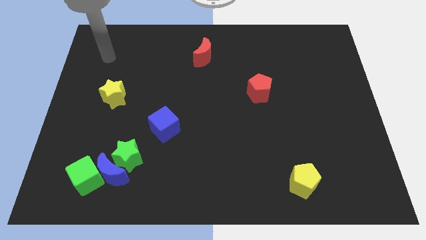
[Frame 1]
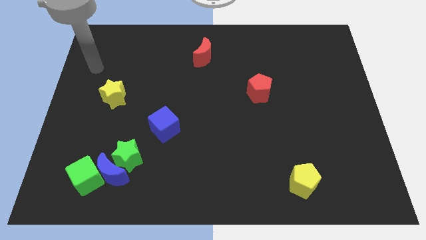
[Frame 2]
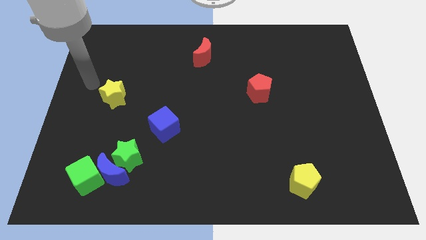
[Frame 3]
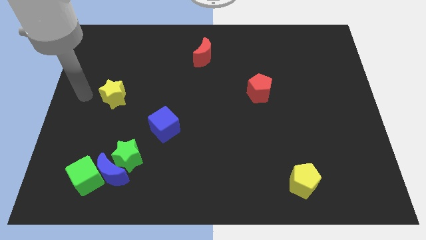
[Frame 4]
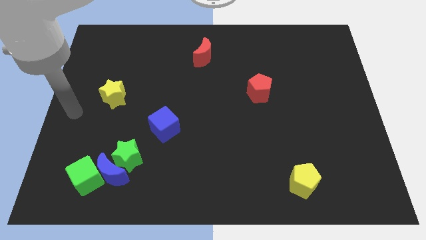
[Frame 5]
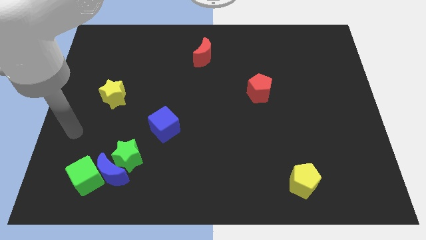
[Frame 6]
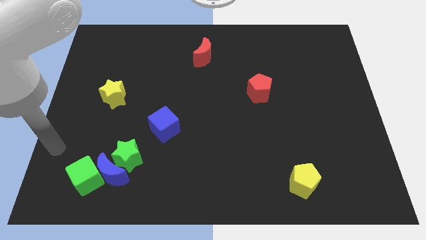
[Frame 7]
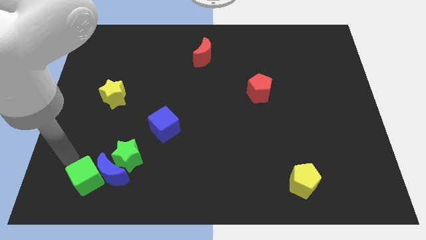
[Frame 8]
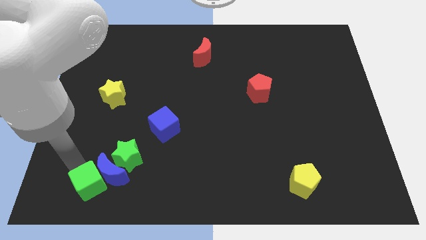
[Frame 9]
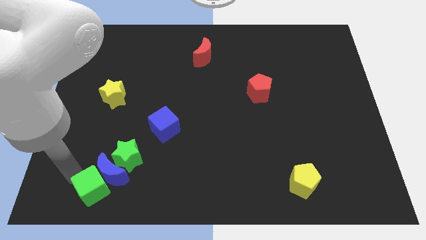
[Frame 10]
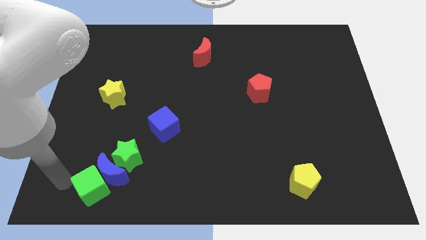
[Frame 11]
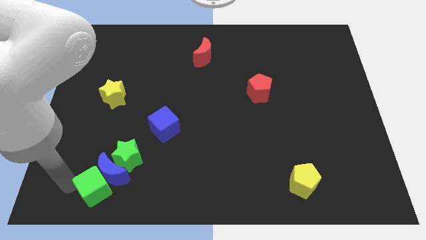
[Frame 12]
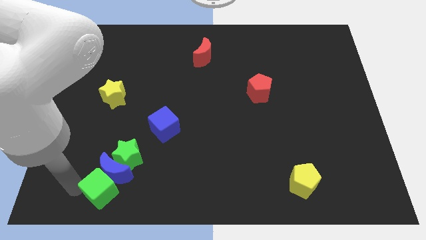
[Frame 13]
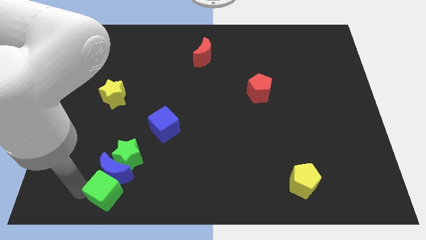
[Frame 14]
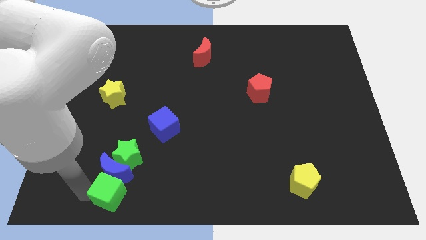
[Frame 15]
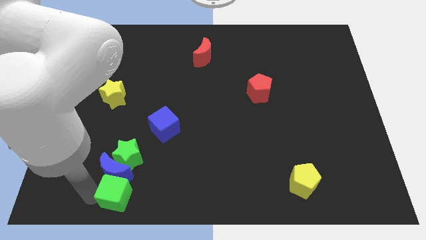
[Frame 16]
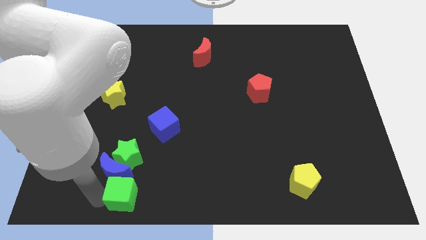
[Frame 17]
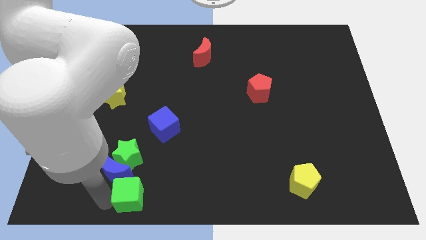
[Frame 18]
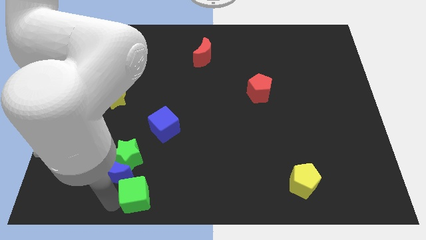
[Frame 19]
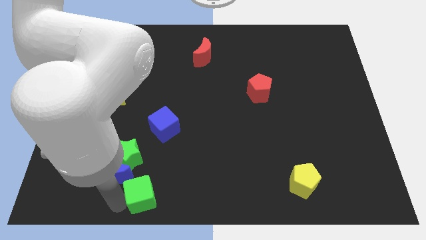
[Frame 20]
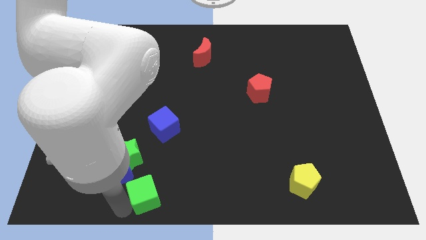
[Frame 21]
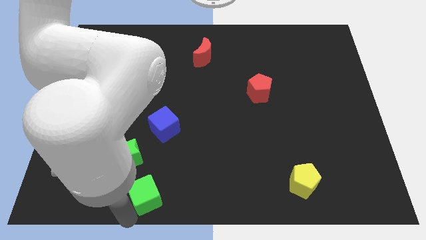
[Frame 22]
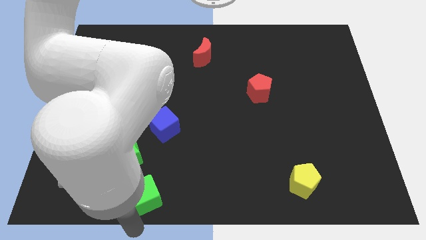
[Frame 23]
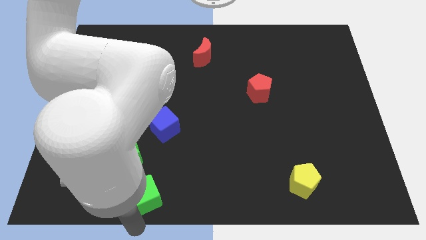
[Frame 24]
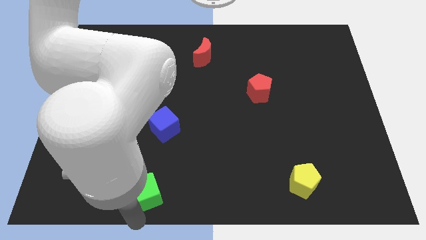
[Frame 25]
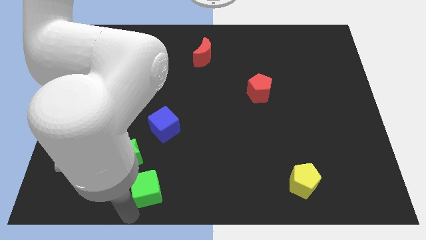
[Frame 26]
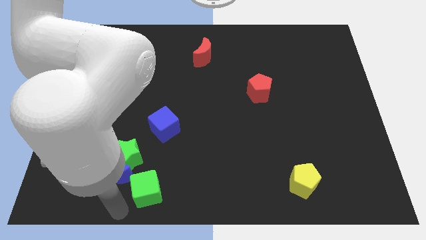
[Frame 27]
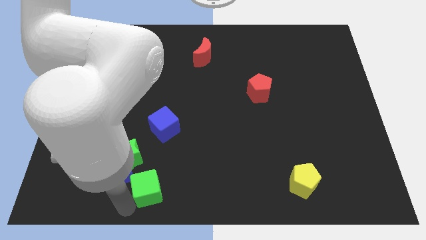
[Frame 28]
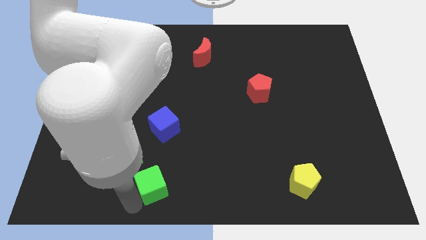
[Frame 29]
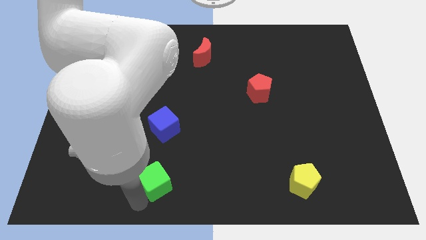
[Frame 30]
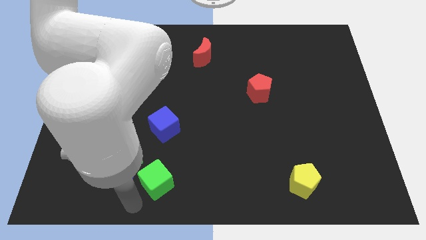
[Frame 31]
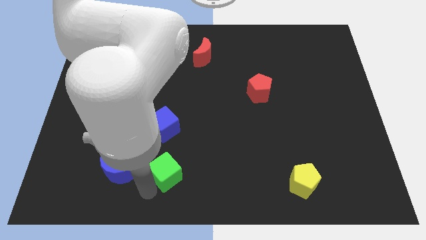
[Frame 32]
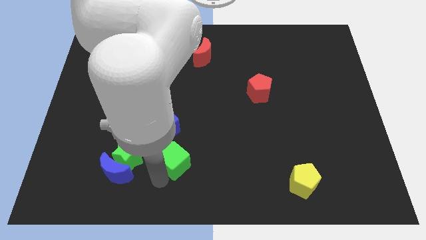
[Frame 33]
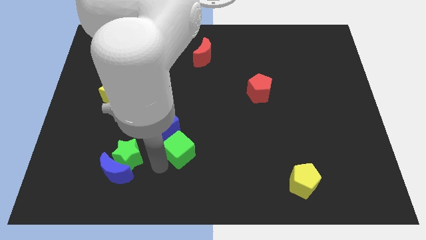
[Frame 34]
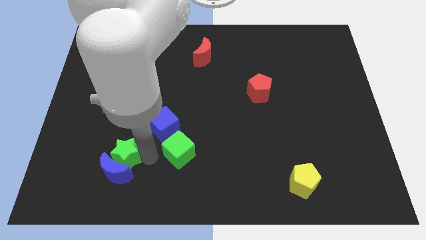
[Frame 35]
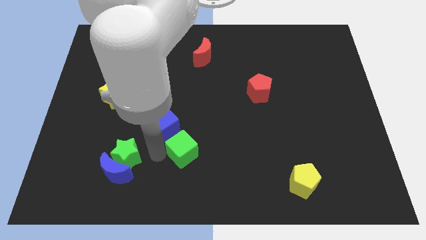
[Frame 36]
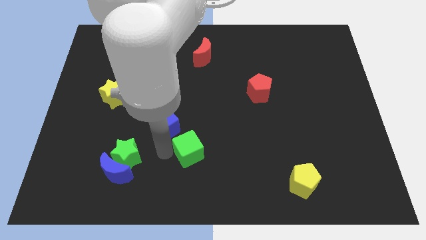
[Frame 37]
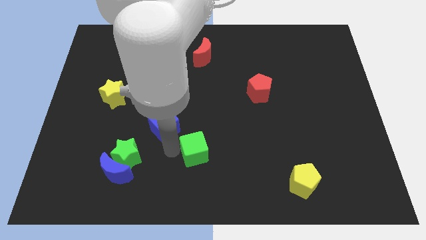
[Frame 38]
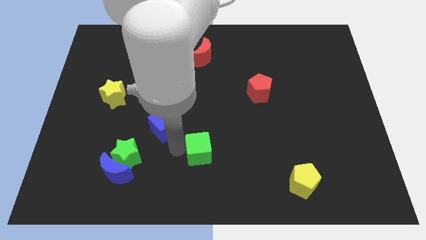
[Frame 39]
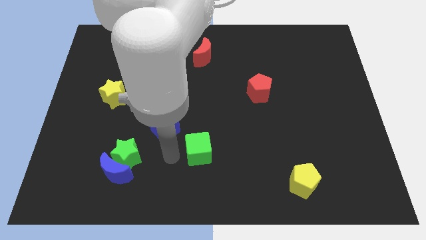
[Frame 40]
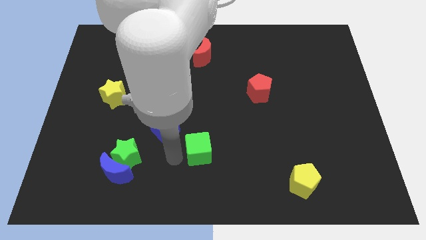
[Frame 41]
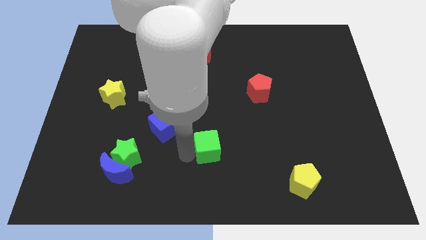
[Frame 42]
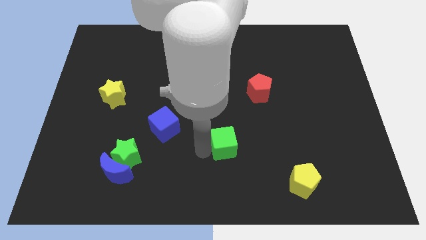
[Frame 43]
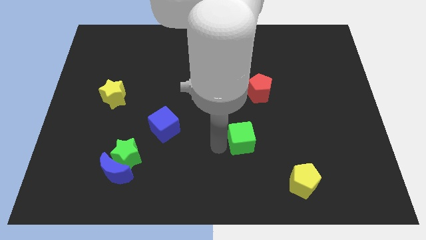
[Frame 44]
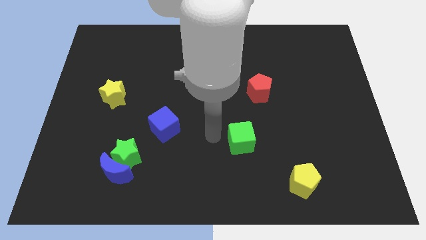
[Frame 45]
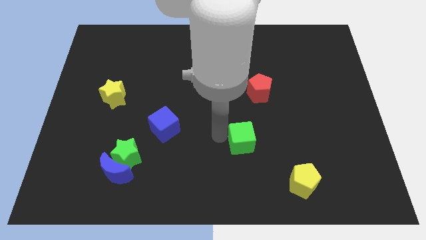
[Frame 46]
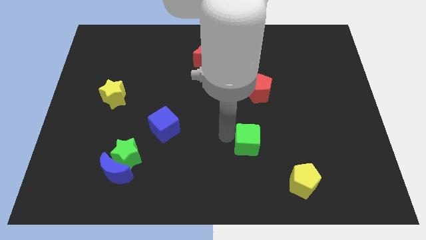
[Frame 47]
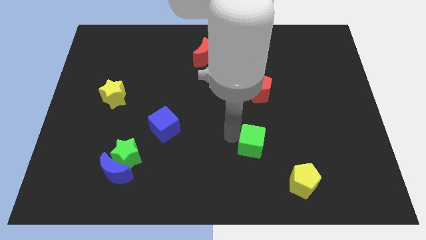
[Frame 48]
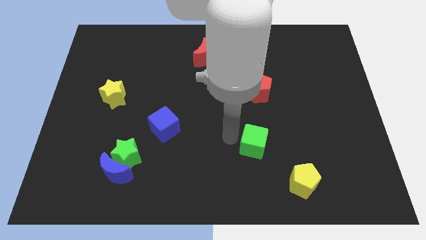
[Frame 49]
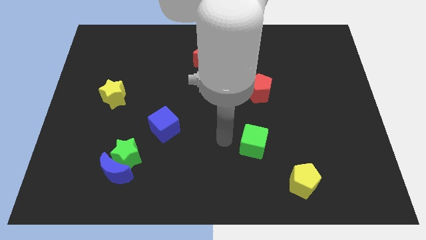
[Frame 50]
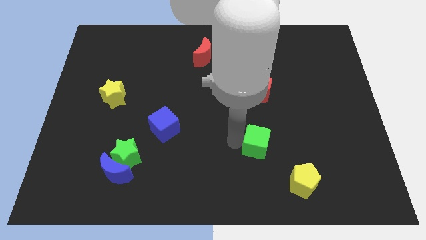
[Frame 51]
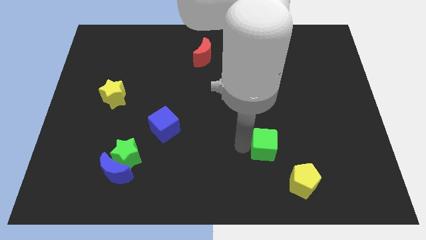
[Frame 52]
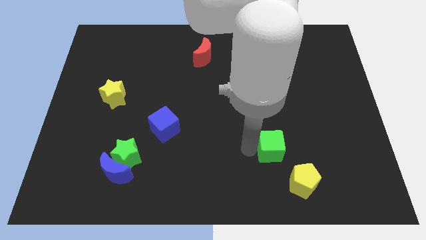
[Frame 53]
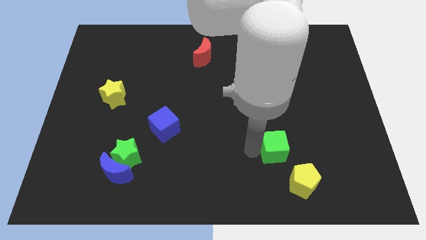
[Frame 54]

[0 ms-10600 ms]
move the green cube to the top side of the yellow pentagon

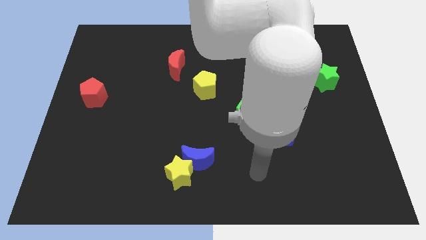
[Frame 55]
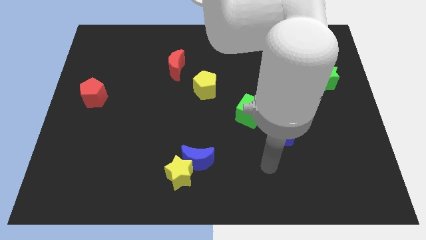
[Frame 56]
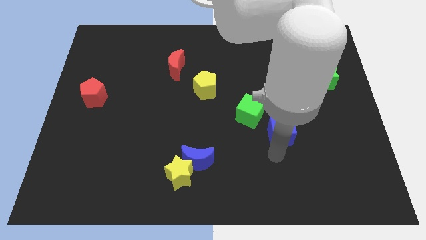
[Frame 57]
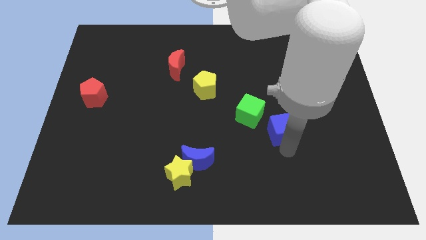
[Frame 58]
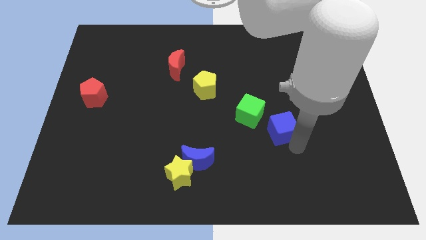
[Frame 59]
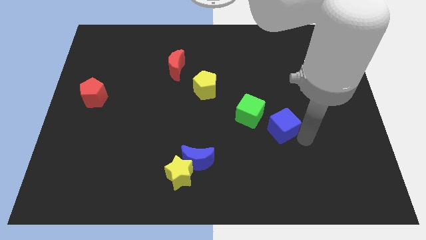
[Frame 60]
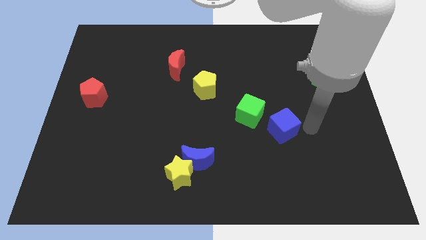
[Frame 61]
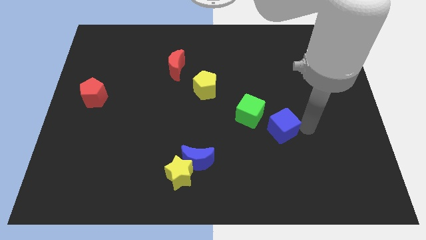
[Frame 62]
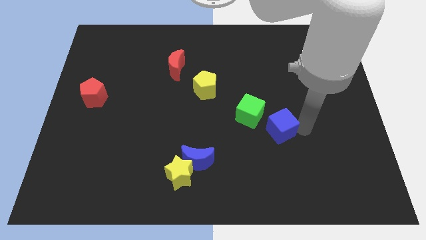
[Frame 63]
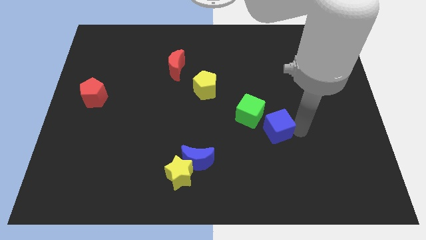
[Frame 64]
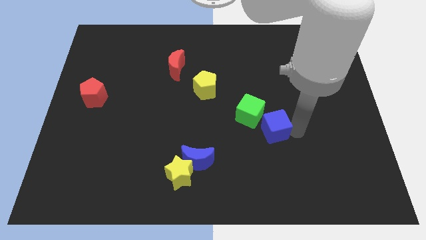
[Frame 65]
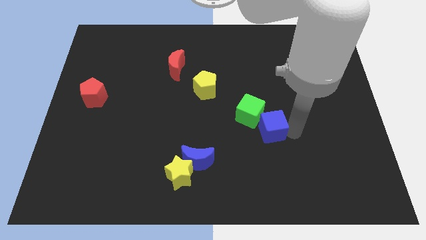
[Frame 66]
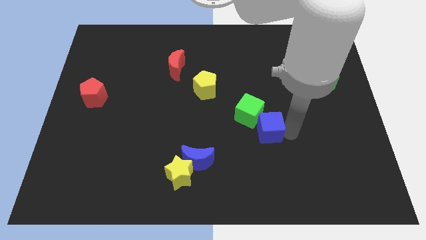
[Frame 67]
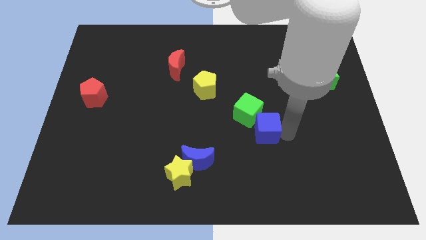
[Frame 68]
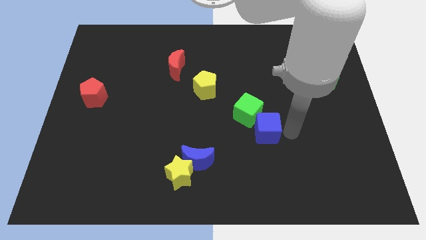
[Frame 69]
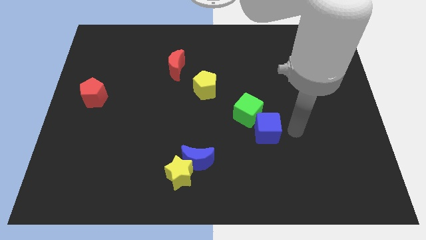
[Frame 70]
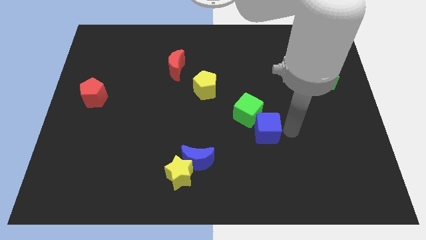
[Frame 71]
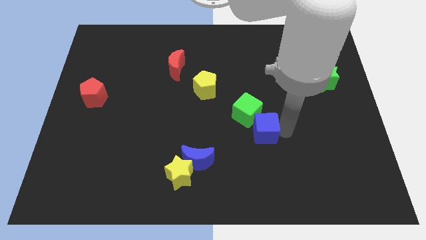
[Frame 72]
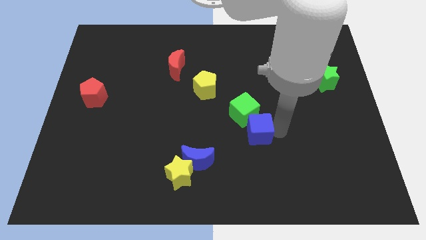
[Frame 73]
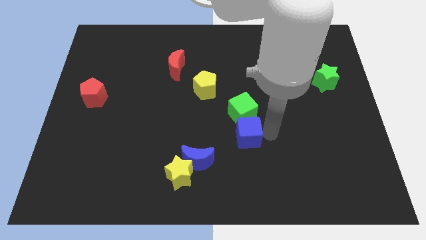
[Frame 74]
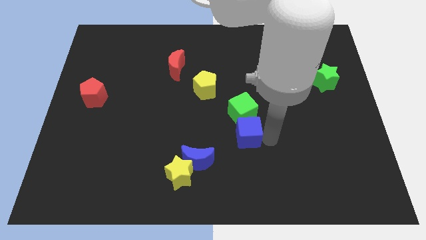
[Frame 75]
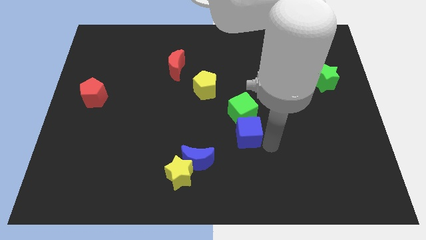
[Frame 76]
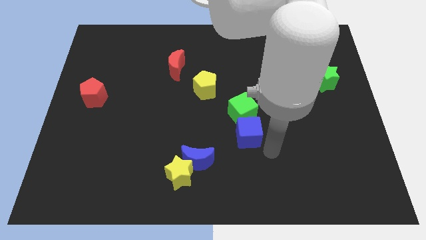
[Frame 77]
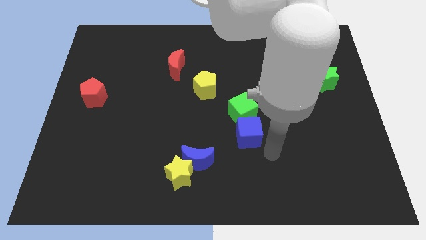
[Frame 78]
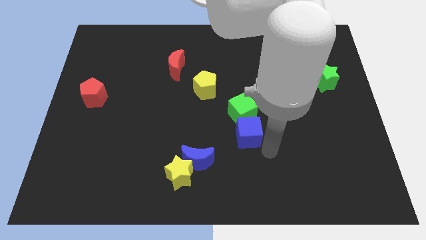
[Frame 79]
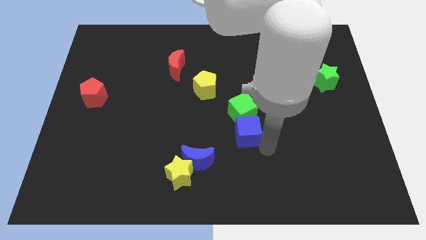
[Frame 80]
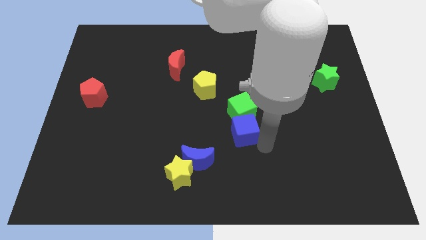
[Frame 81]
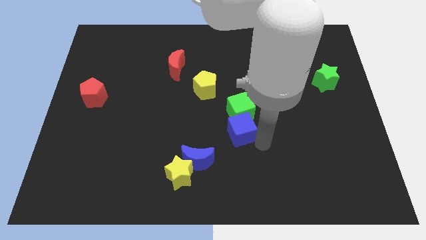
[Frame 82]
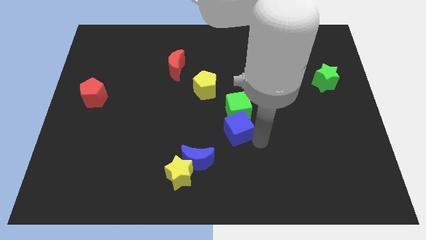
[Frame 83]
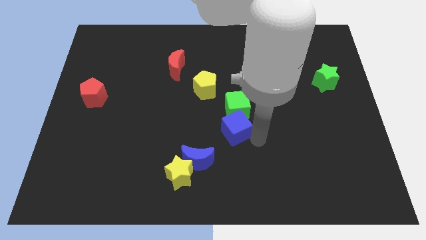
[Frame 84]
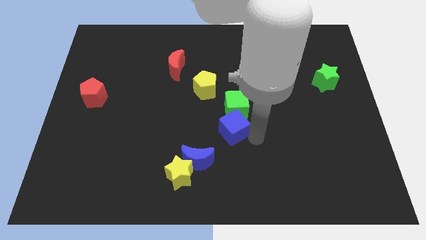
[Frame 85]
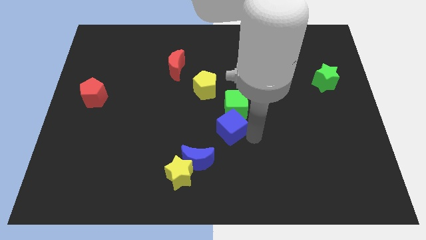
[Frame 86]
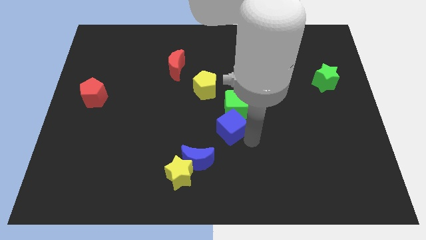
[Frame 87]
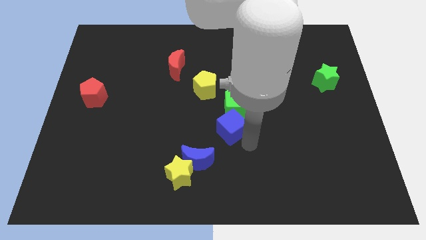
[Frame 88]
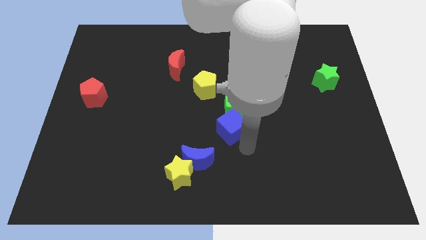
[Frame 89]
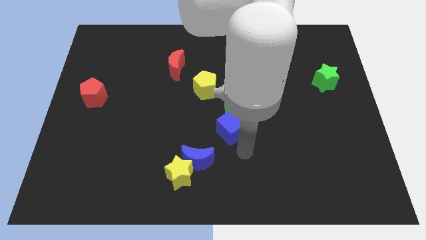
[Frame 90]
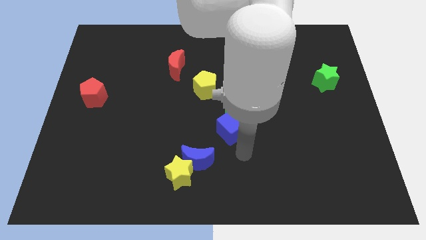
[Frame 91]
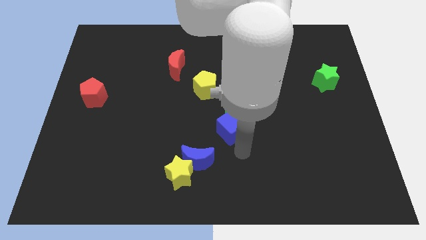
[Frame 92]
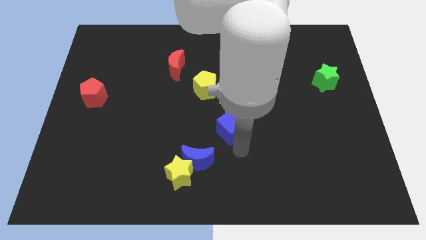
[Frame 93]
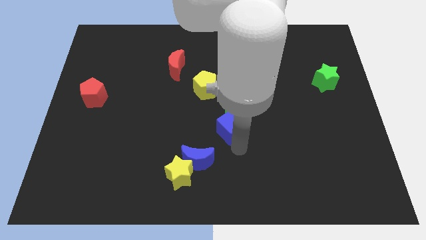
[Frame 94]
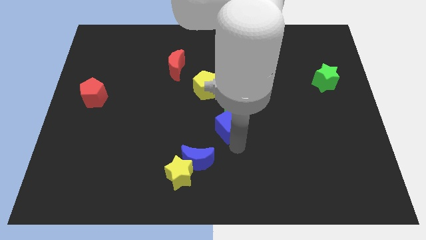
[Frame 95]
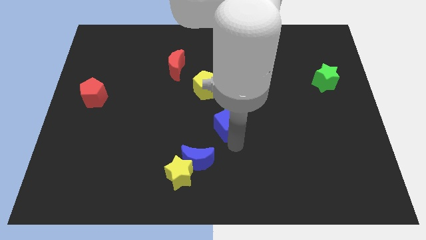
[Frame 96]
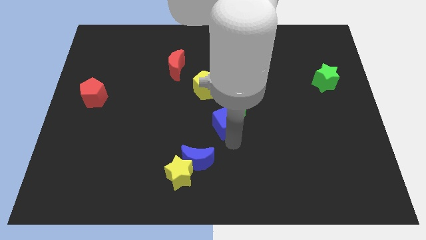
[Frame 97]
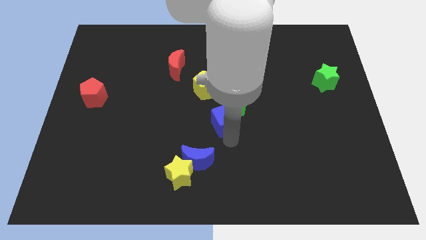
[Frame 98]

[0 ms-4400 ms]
slide the blue cube to the bottom right of the yellow pentagon
